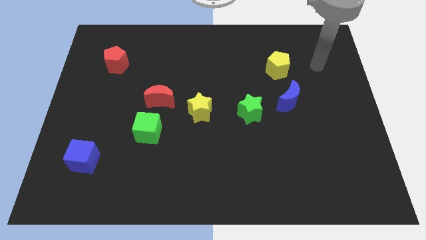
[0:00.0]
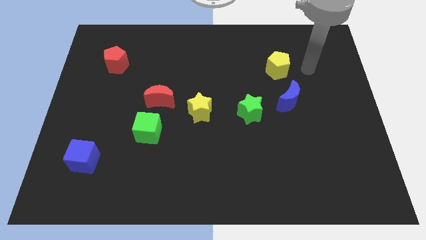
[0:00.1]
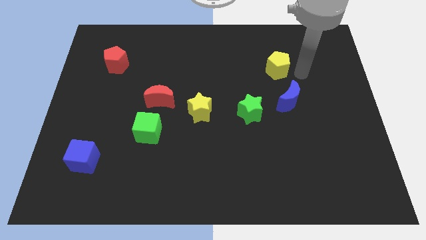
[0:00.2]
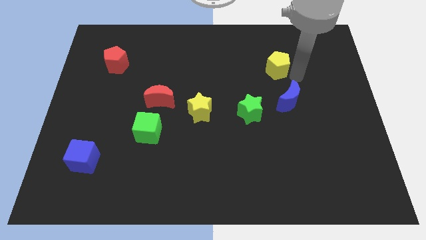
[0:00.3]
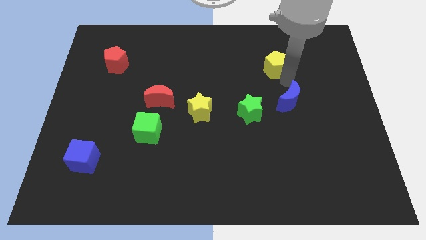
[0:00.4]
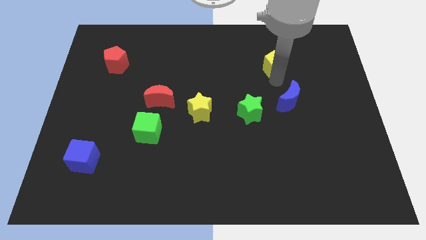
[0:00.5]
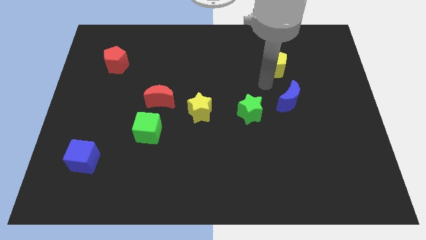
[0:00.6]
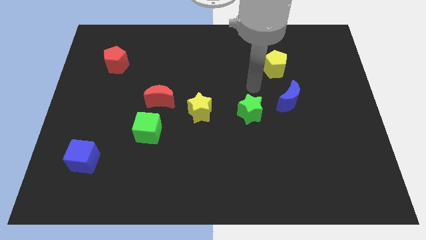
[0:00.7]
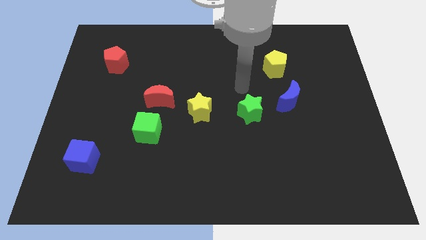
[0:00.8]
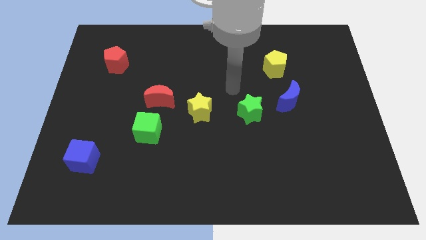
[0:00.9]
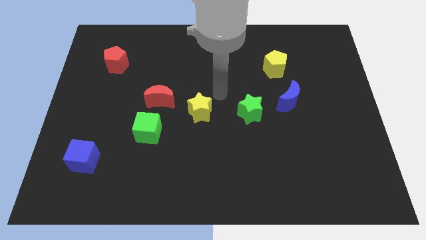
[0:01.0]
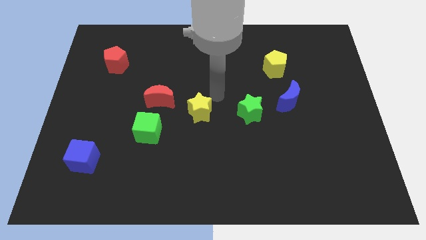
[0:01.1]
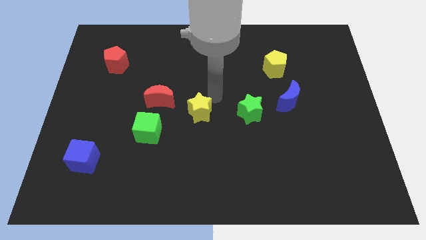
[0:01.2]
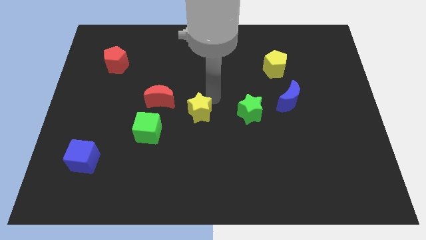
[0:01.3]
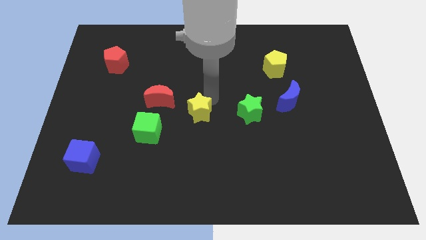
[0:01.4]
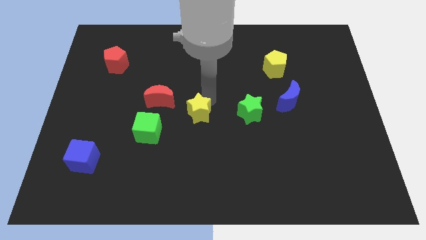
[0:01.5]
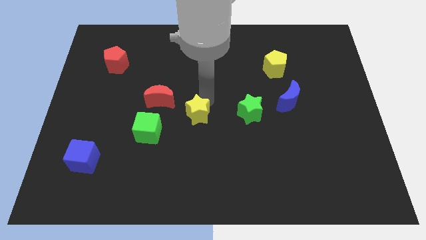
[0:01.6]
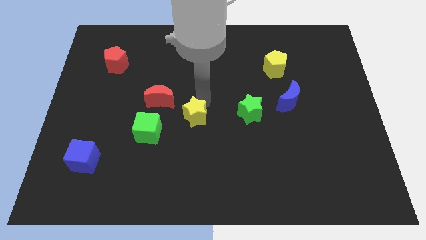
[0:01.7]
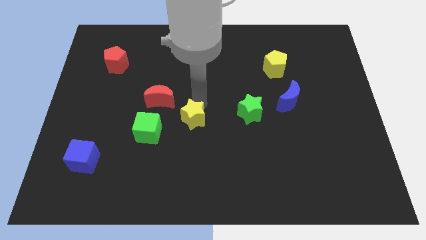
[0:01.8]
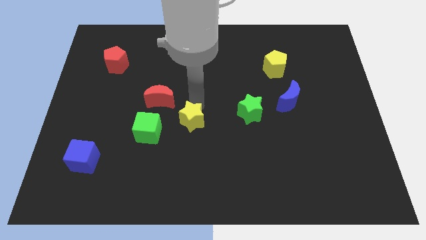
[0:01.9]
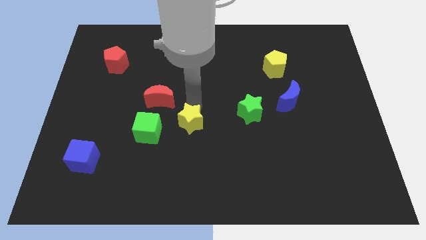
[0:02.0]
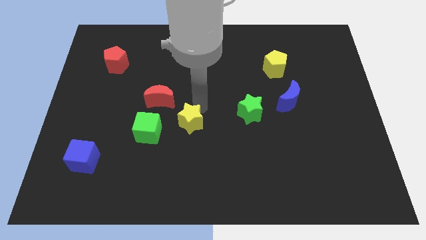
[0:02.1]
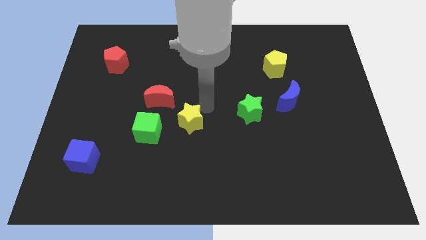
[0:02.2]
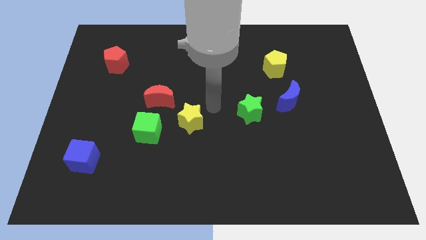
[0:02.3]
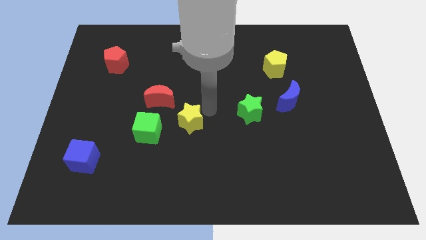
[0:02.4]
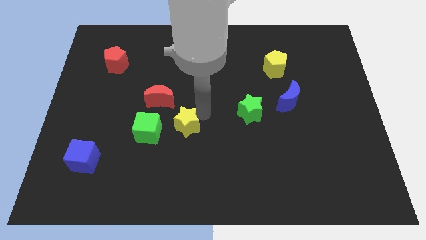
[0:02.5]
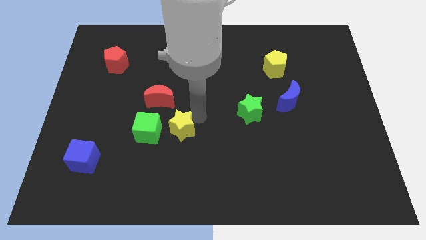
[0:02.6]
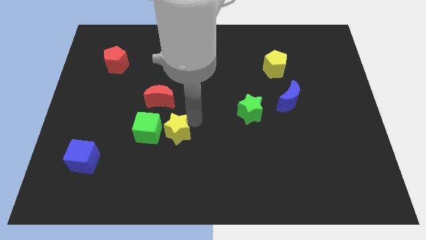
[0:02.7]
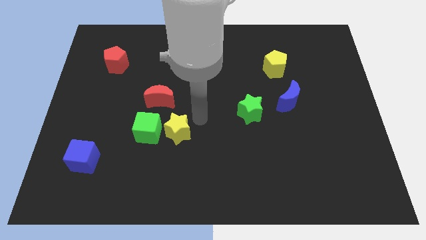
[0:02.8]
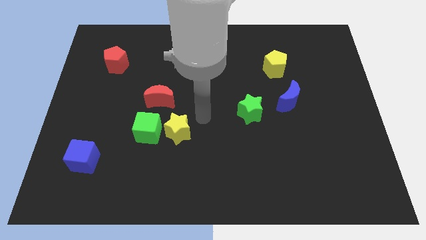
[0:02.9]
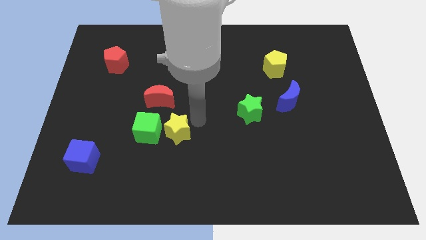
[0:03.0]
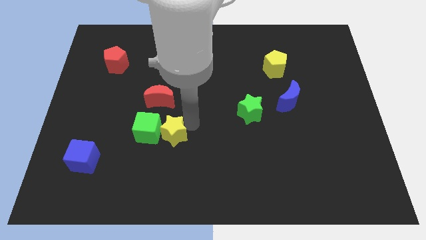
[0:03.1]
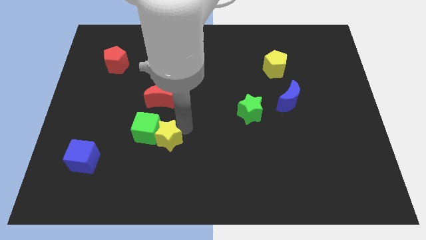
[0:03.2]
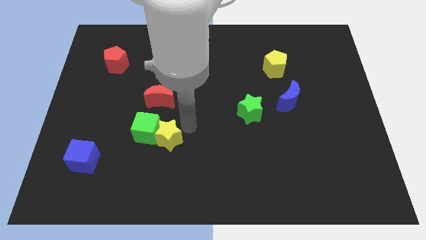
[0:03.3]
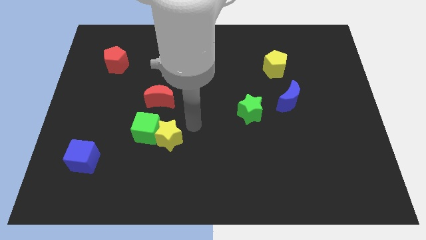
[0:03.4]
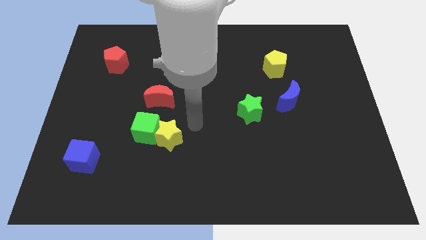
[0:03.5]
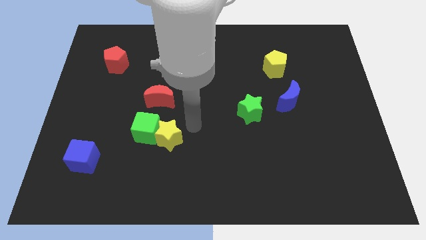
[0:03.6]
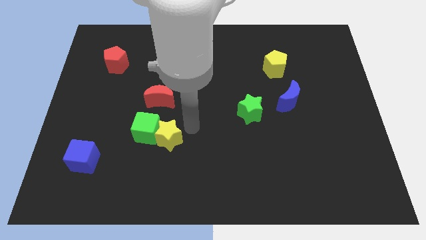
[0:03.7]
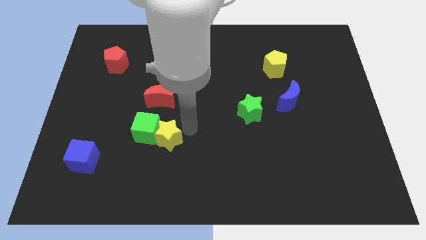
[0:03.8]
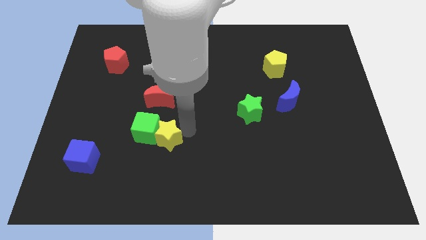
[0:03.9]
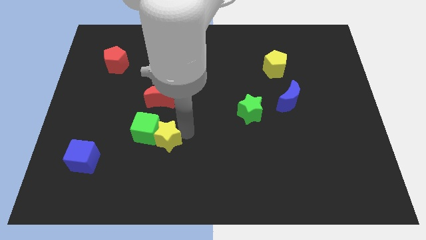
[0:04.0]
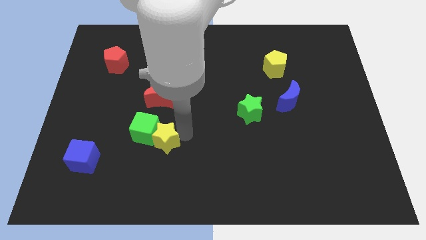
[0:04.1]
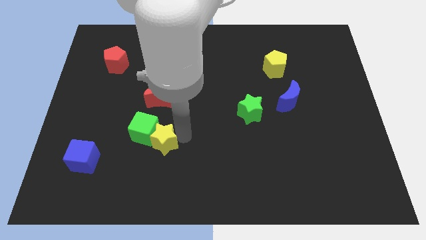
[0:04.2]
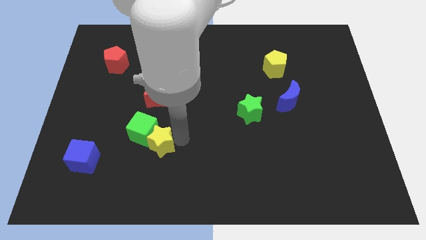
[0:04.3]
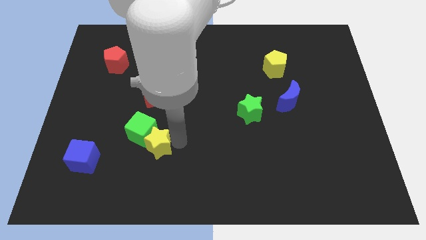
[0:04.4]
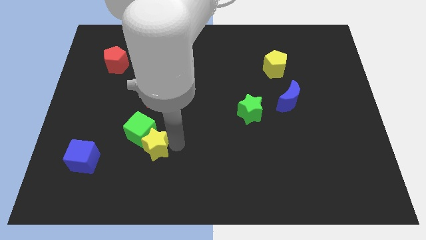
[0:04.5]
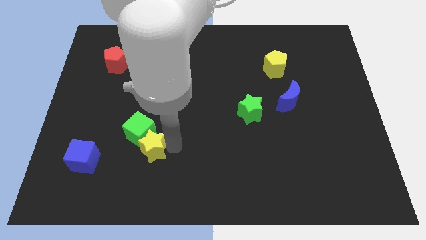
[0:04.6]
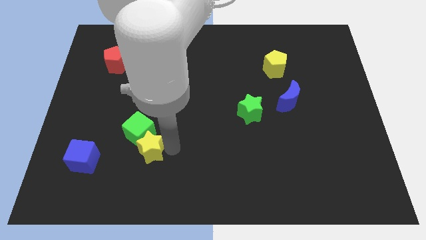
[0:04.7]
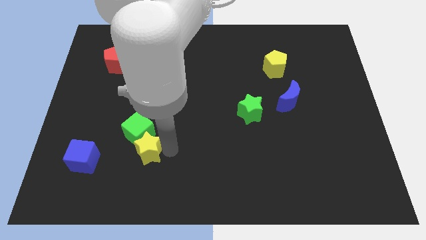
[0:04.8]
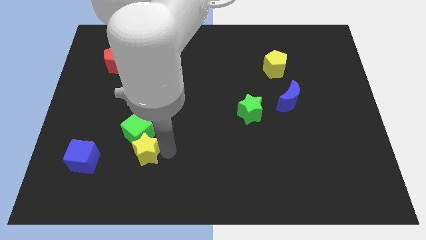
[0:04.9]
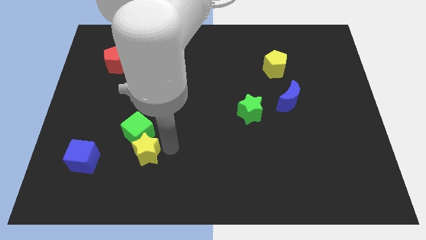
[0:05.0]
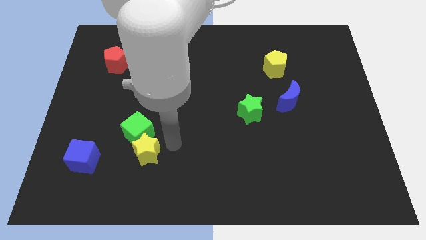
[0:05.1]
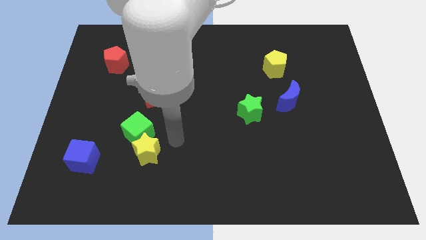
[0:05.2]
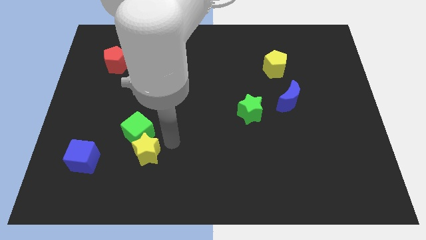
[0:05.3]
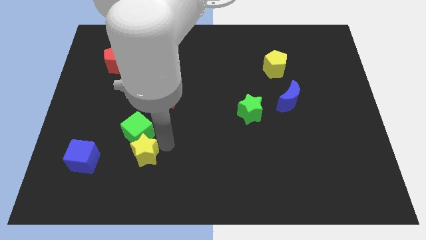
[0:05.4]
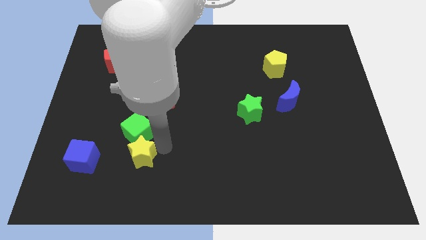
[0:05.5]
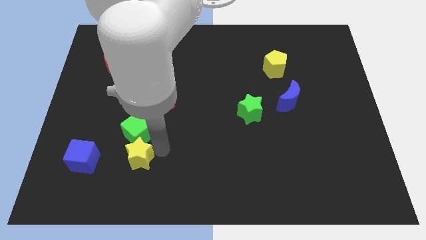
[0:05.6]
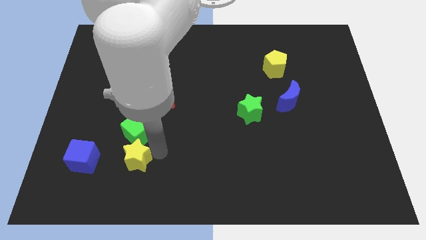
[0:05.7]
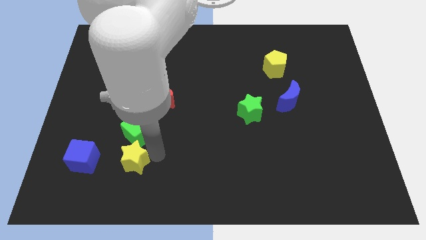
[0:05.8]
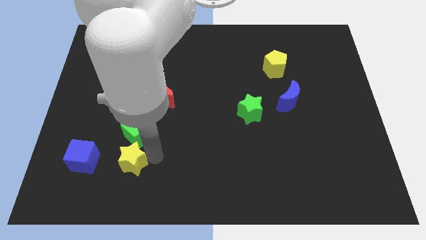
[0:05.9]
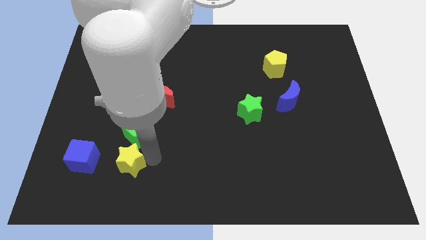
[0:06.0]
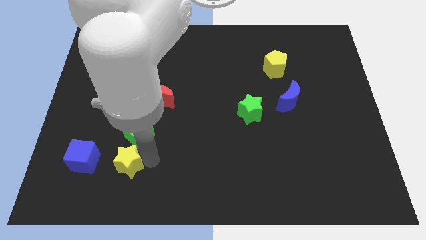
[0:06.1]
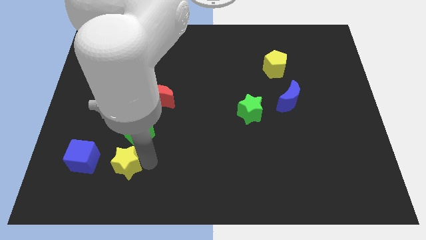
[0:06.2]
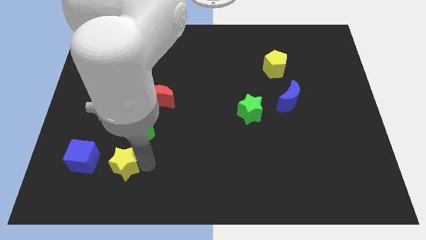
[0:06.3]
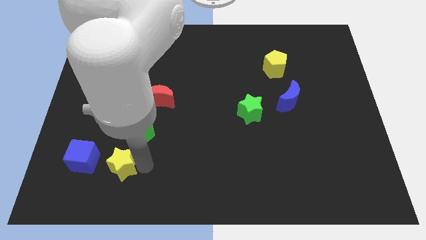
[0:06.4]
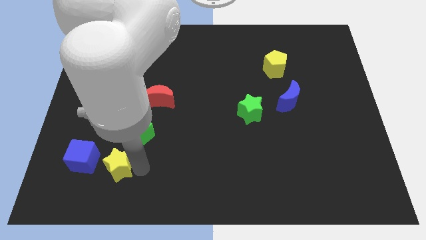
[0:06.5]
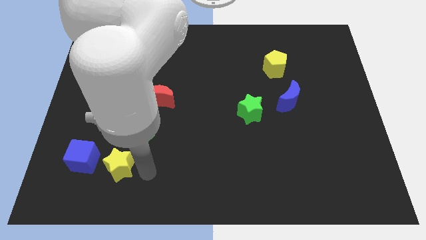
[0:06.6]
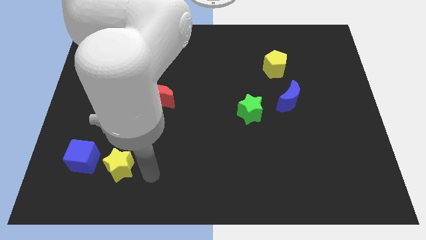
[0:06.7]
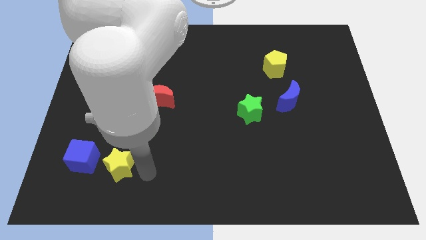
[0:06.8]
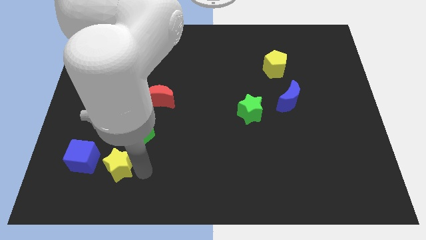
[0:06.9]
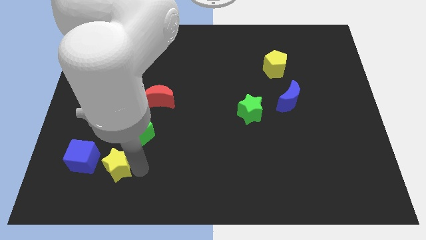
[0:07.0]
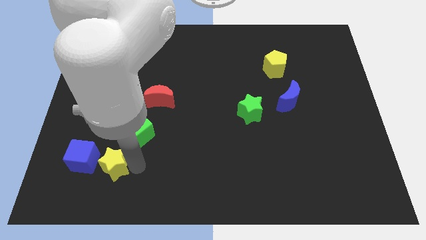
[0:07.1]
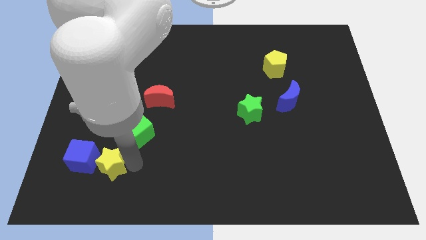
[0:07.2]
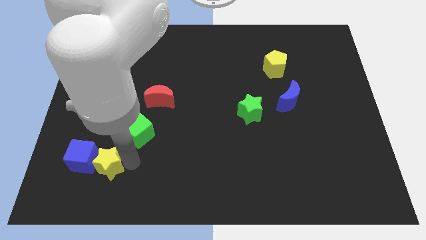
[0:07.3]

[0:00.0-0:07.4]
push the yellow star towards the blue cube

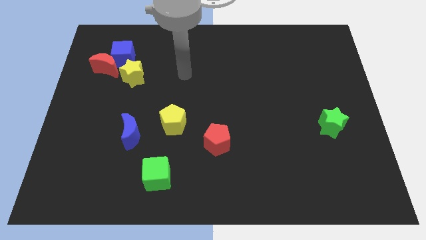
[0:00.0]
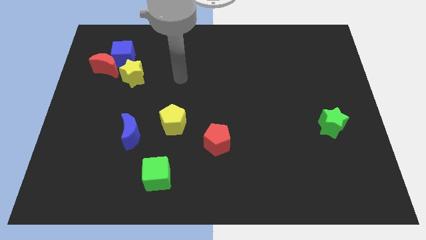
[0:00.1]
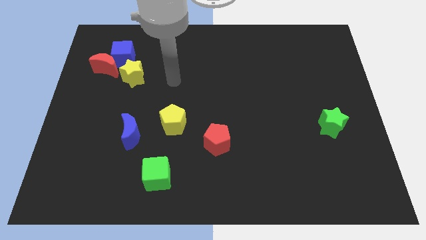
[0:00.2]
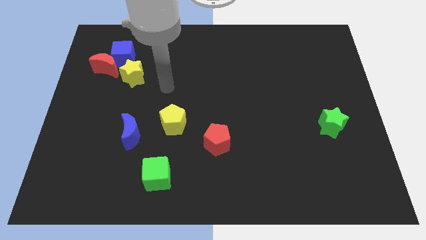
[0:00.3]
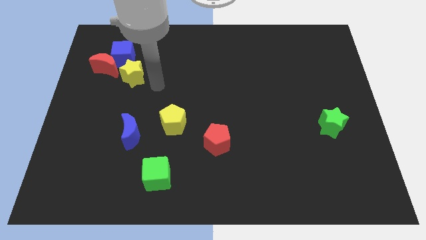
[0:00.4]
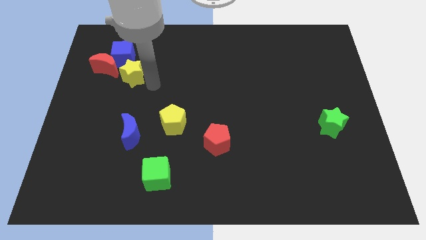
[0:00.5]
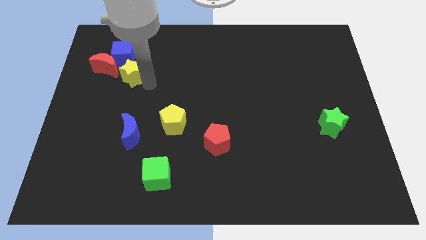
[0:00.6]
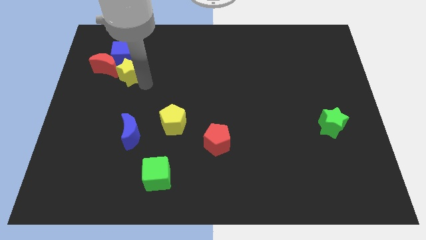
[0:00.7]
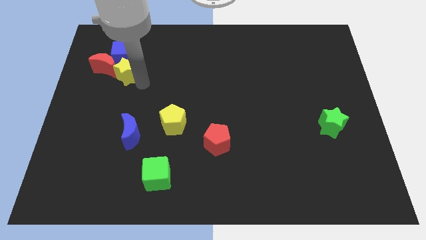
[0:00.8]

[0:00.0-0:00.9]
slide the yellow star to the red moon
